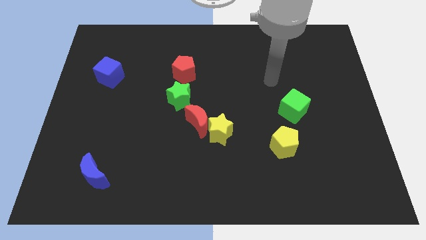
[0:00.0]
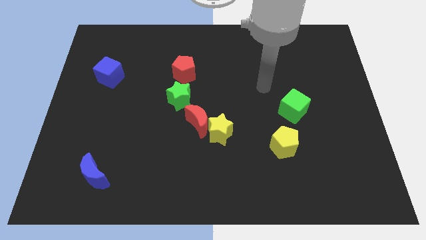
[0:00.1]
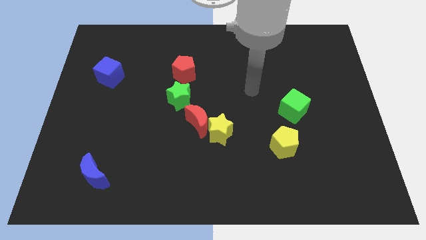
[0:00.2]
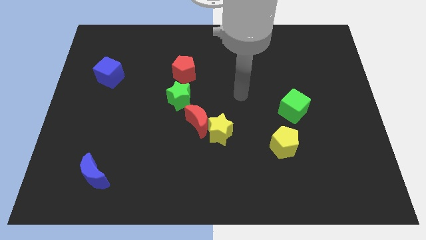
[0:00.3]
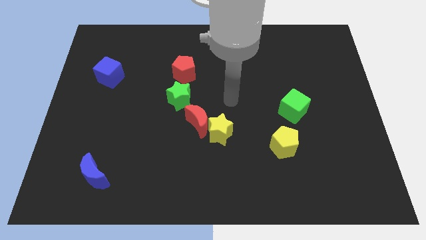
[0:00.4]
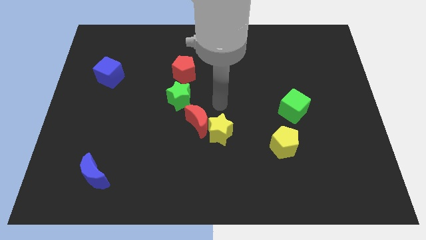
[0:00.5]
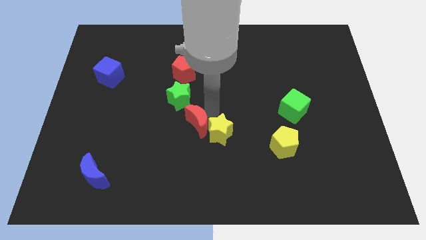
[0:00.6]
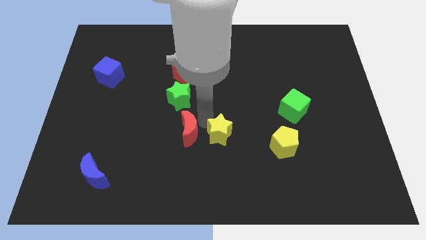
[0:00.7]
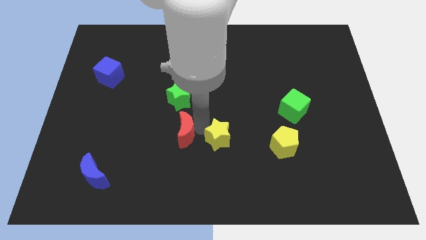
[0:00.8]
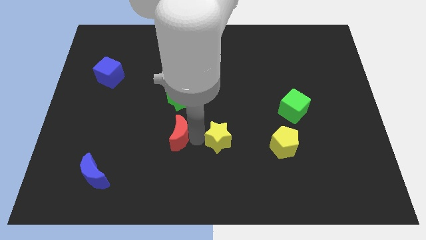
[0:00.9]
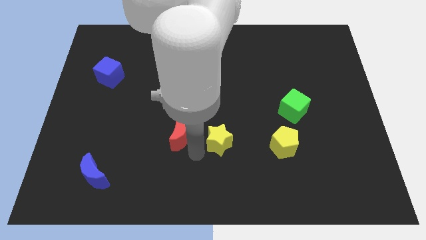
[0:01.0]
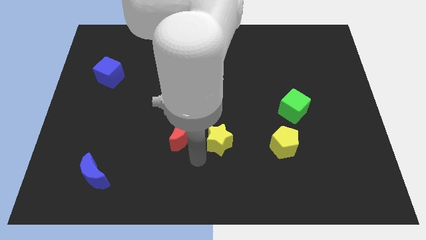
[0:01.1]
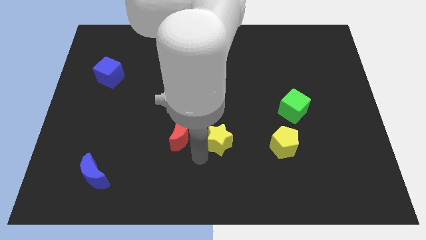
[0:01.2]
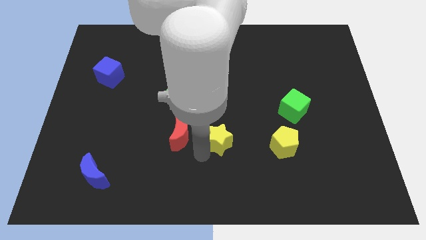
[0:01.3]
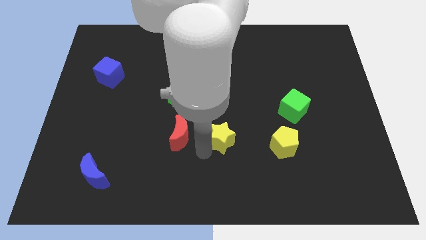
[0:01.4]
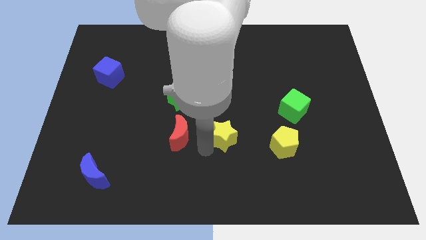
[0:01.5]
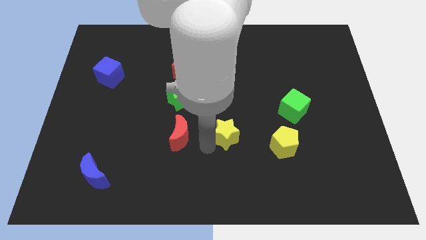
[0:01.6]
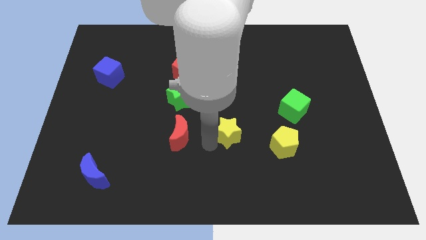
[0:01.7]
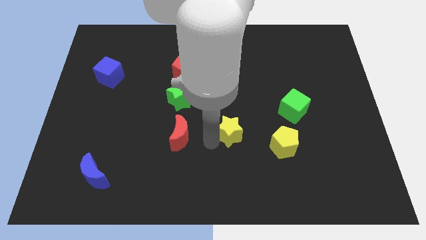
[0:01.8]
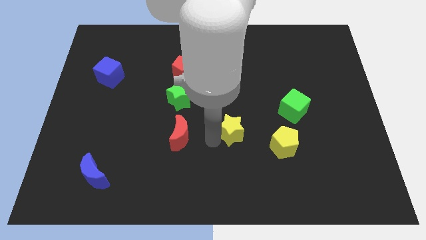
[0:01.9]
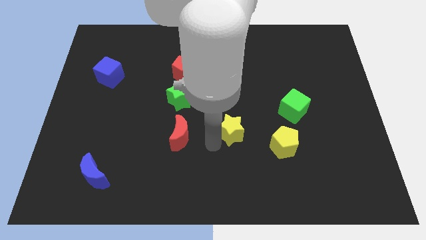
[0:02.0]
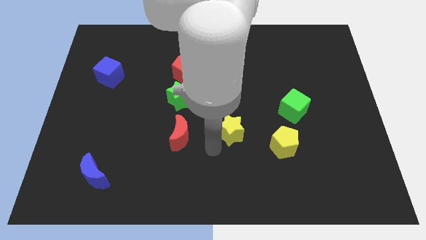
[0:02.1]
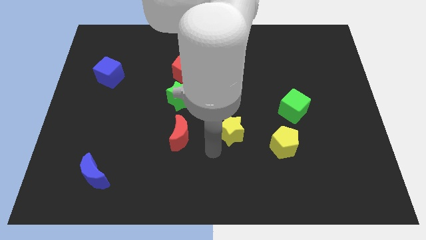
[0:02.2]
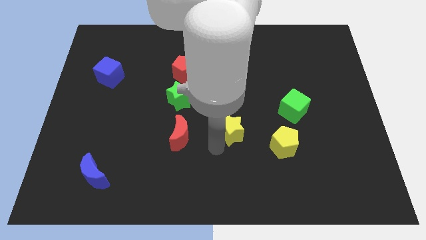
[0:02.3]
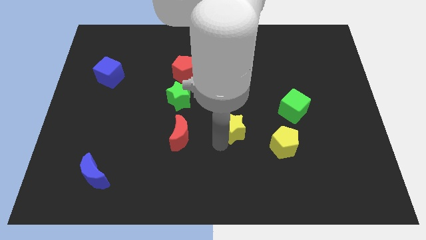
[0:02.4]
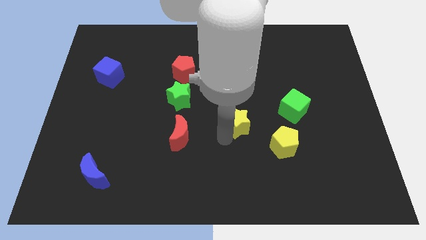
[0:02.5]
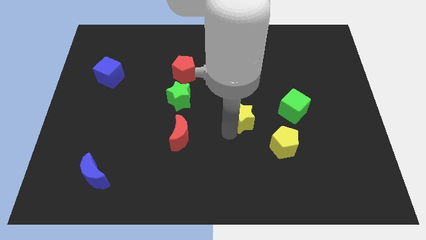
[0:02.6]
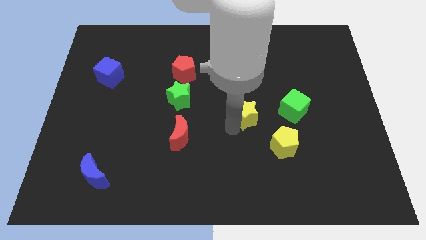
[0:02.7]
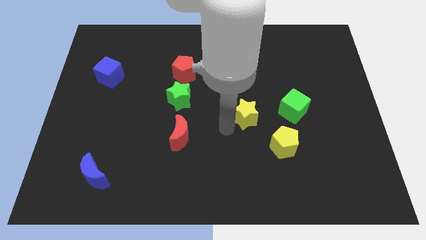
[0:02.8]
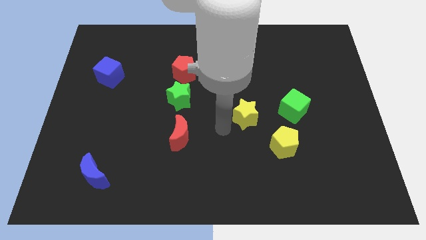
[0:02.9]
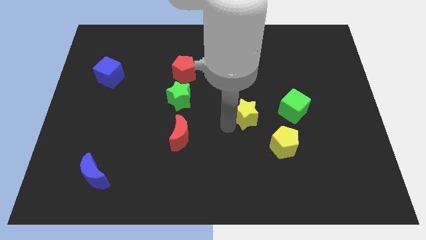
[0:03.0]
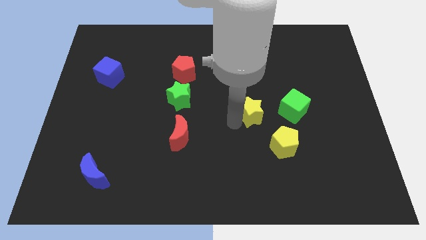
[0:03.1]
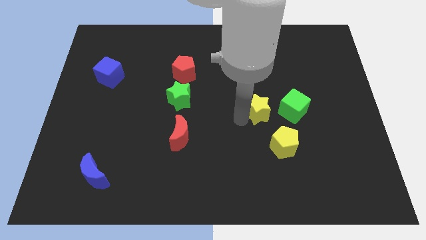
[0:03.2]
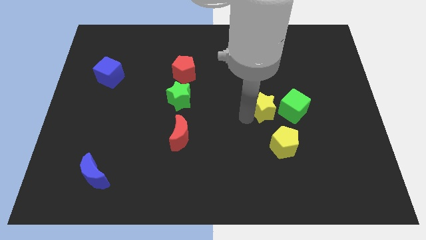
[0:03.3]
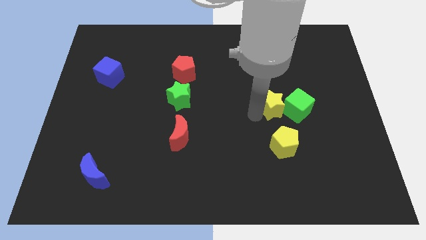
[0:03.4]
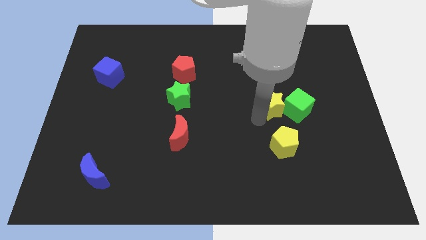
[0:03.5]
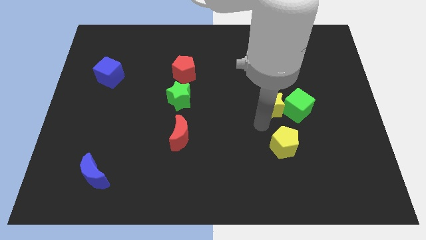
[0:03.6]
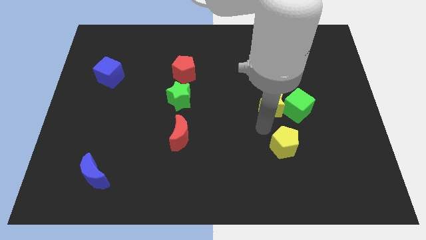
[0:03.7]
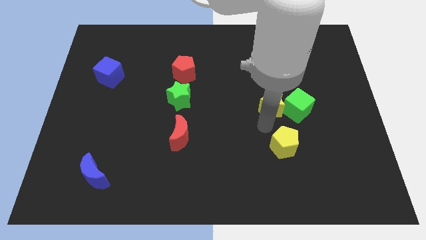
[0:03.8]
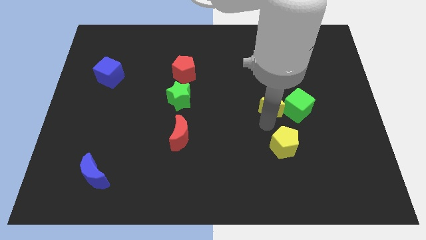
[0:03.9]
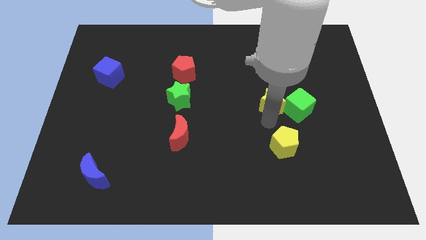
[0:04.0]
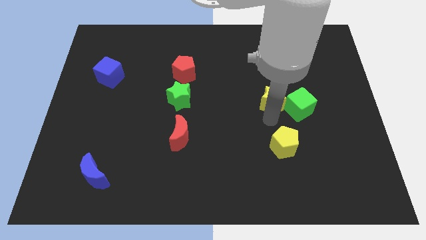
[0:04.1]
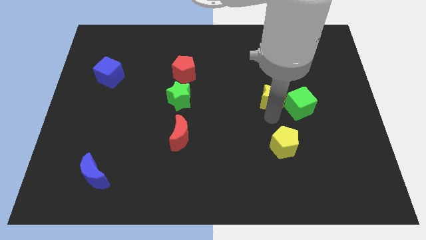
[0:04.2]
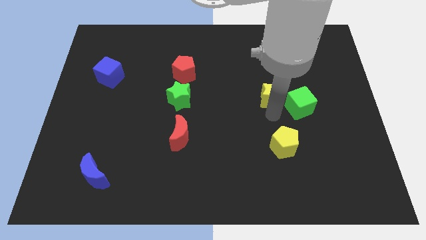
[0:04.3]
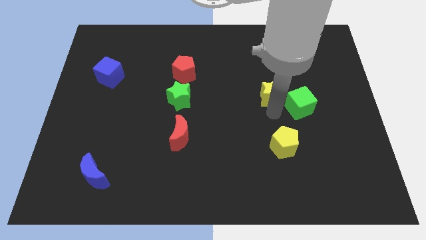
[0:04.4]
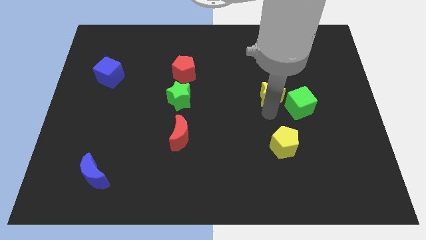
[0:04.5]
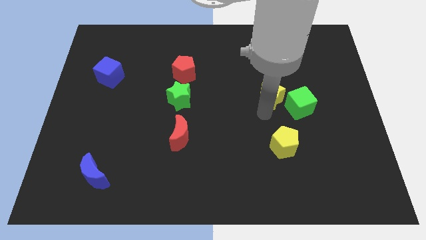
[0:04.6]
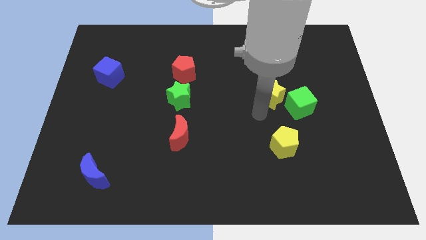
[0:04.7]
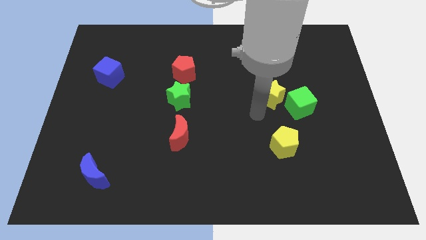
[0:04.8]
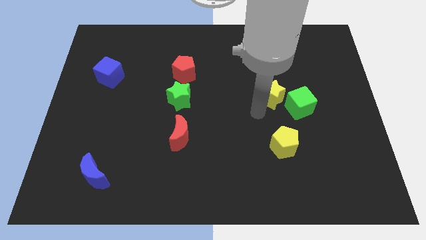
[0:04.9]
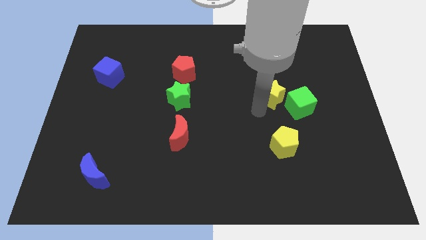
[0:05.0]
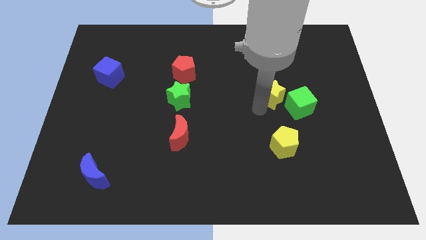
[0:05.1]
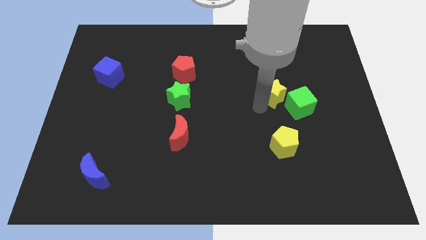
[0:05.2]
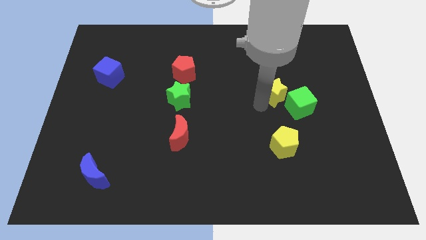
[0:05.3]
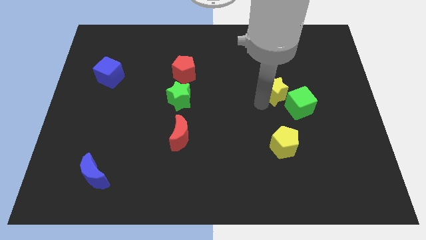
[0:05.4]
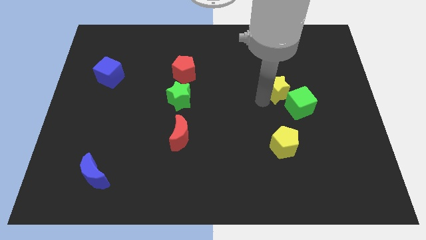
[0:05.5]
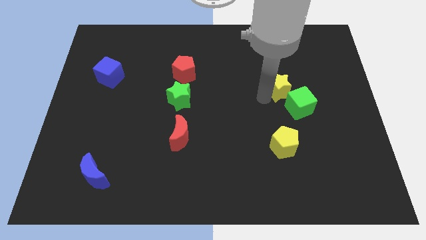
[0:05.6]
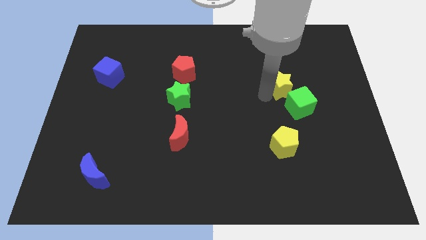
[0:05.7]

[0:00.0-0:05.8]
move the yellow star diagonally upwards and to the right

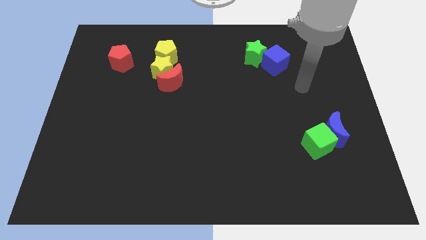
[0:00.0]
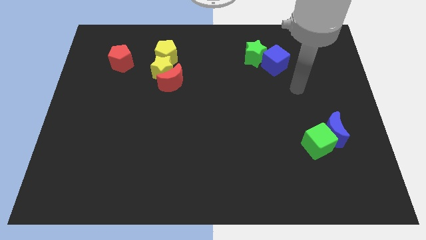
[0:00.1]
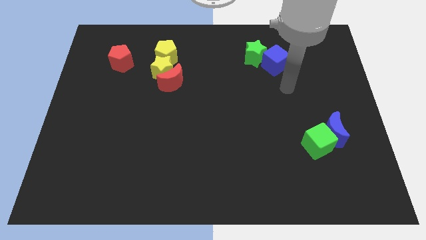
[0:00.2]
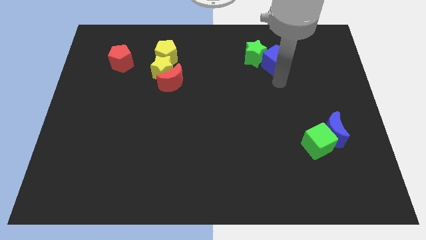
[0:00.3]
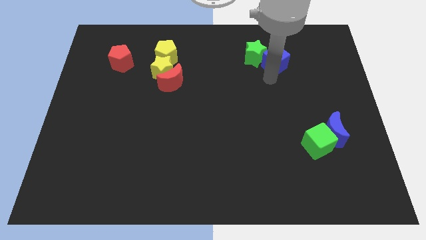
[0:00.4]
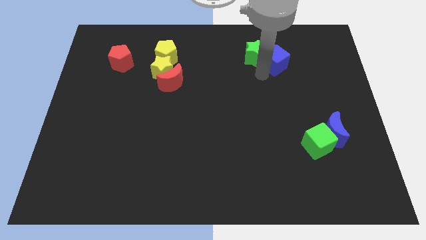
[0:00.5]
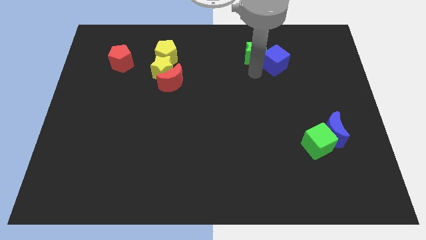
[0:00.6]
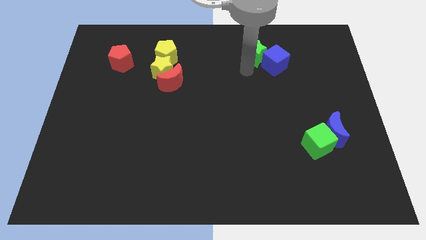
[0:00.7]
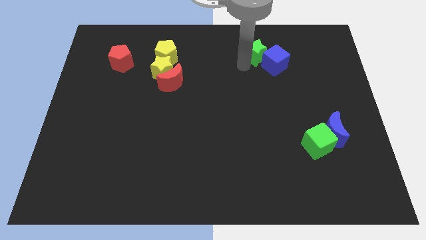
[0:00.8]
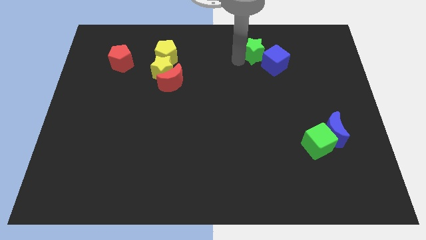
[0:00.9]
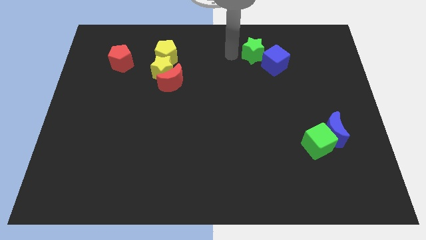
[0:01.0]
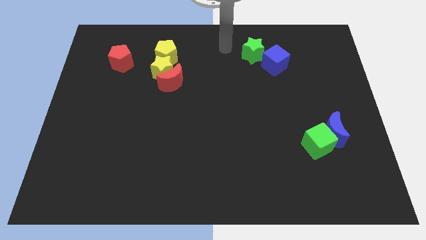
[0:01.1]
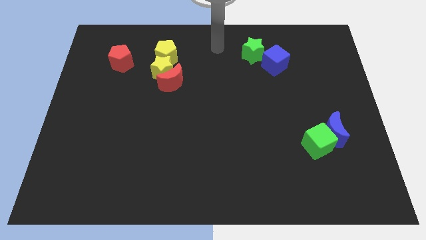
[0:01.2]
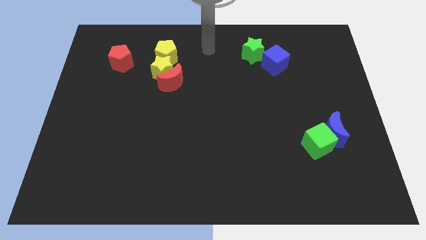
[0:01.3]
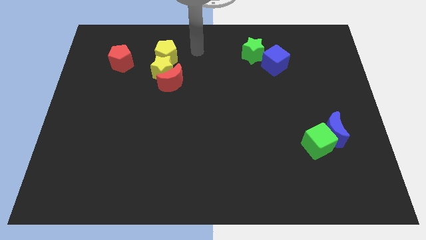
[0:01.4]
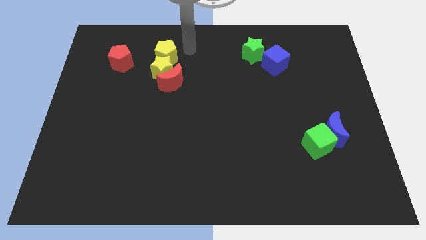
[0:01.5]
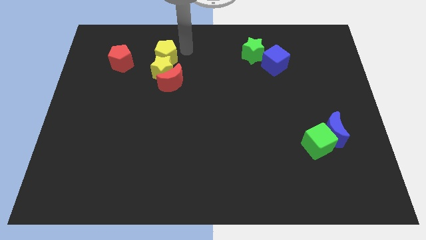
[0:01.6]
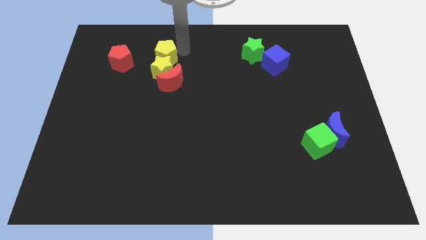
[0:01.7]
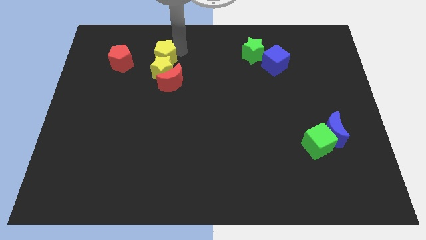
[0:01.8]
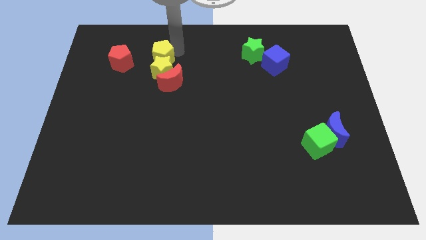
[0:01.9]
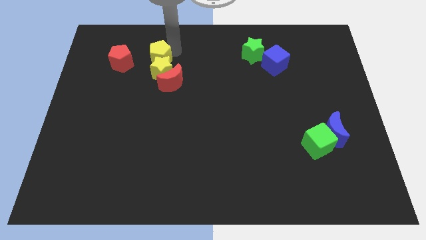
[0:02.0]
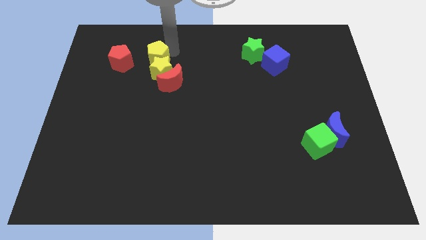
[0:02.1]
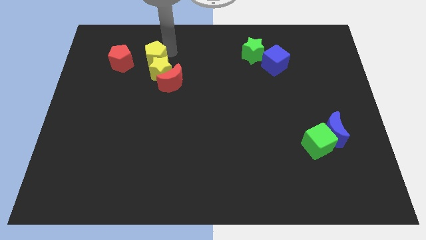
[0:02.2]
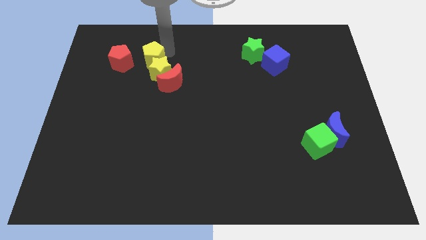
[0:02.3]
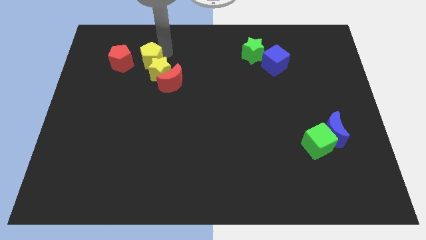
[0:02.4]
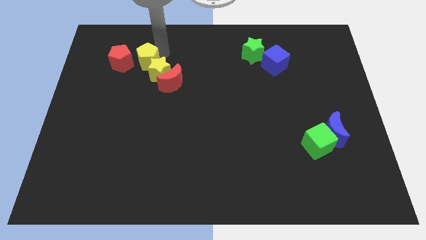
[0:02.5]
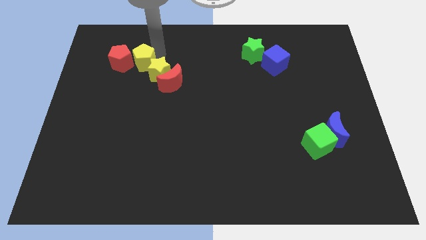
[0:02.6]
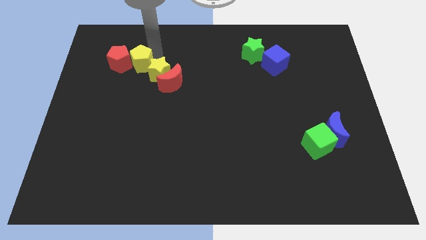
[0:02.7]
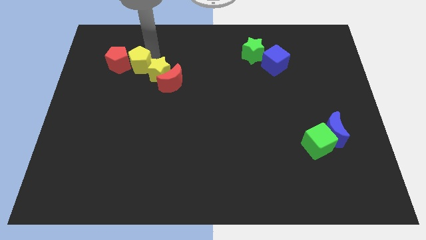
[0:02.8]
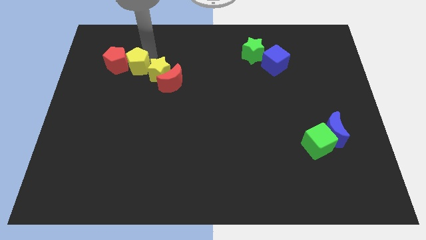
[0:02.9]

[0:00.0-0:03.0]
move the yellow pentagon down and left diagonally a bit
